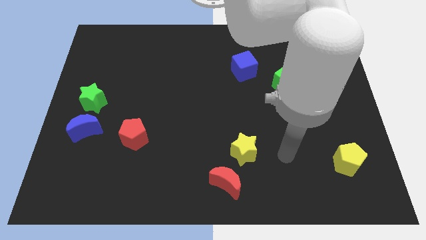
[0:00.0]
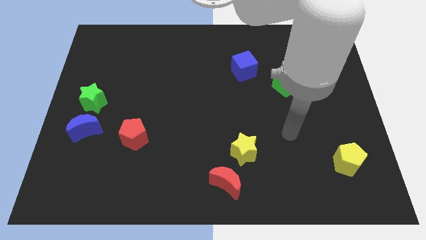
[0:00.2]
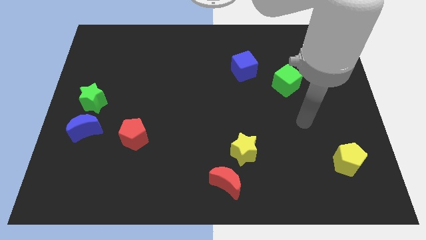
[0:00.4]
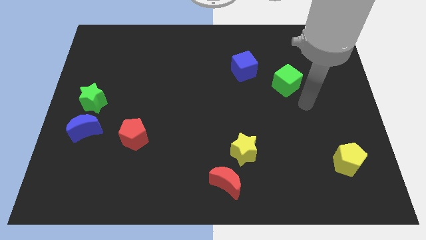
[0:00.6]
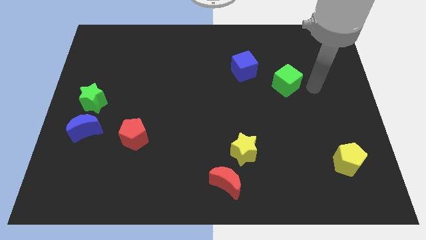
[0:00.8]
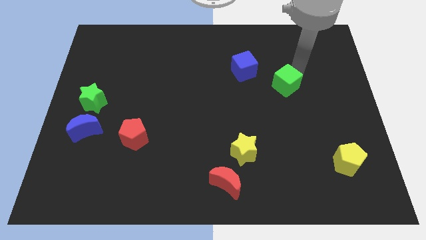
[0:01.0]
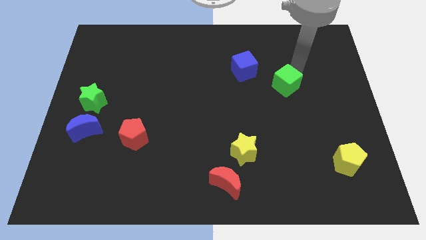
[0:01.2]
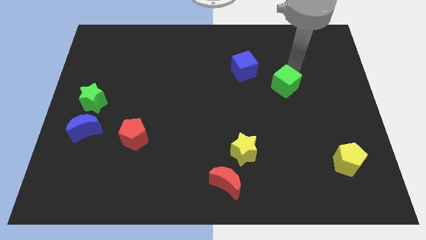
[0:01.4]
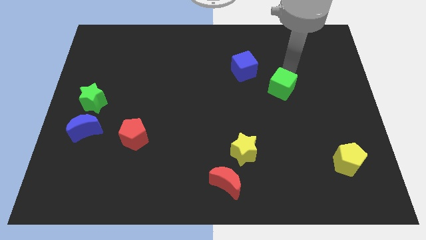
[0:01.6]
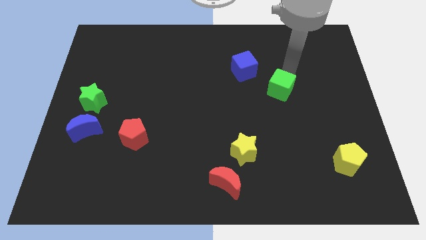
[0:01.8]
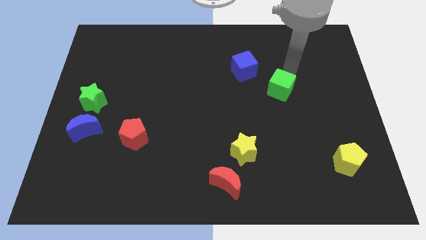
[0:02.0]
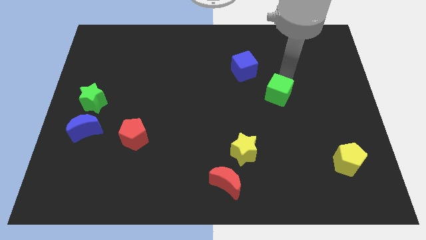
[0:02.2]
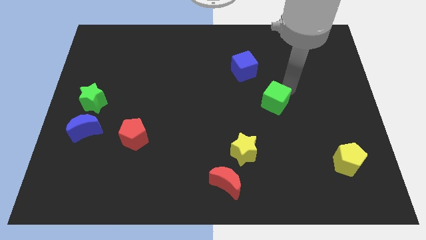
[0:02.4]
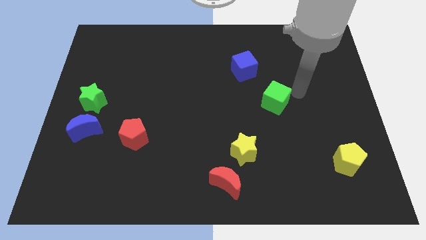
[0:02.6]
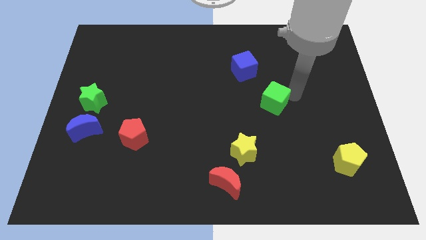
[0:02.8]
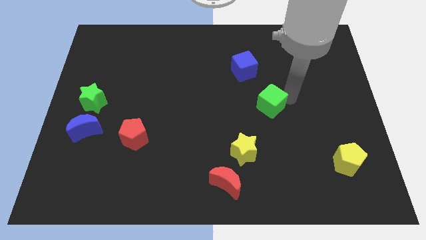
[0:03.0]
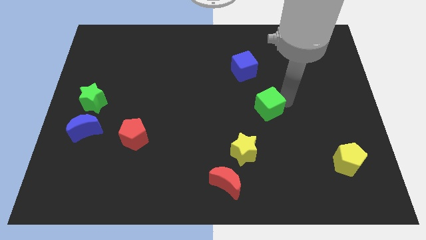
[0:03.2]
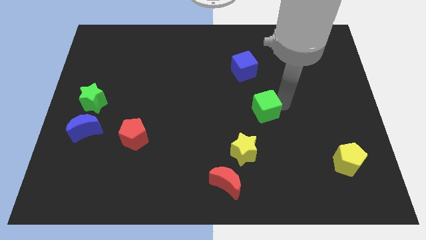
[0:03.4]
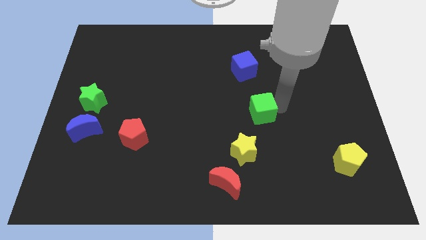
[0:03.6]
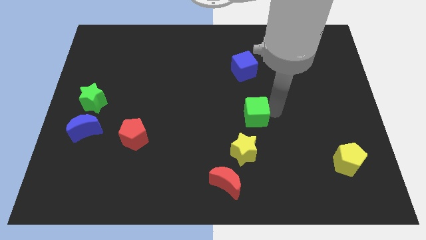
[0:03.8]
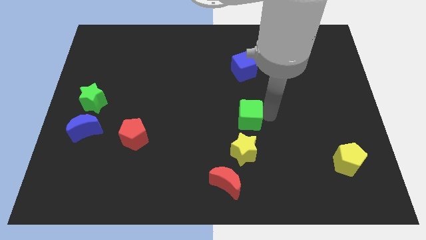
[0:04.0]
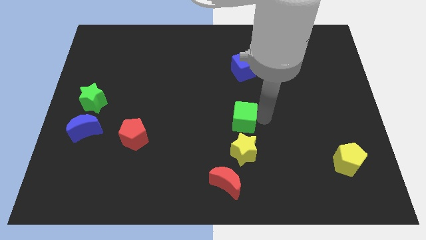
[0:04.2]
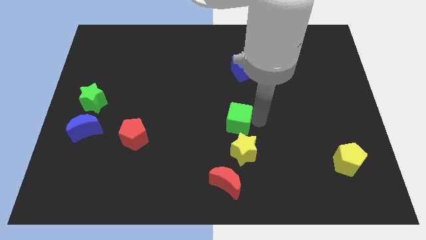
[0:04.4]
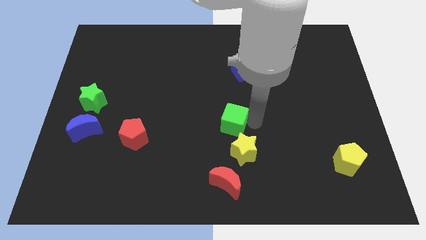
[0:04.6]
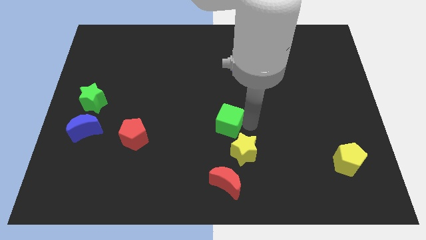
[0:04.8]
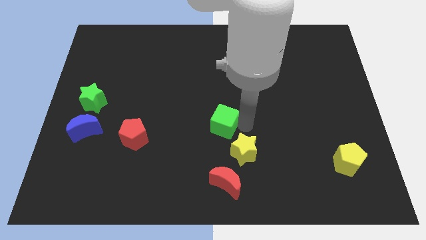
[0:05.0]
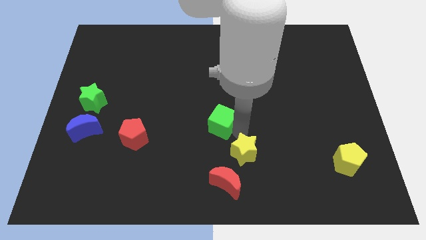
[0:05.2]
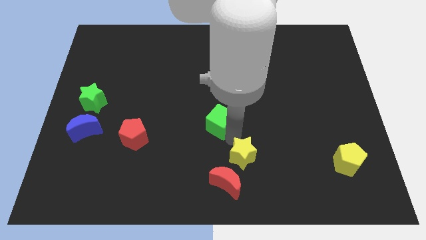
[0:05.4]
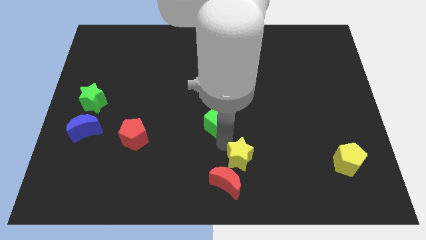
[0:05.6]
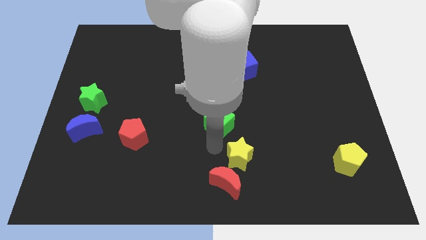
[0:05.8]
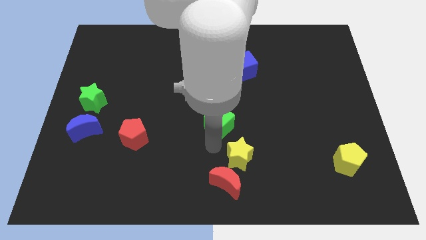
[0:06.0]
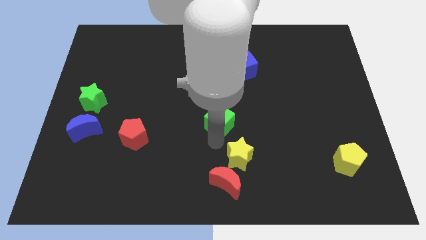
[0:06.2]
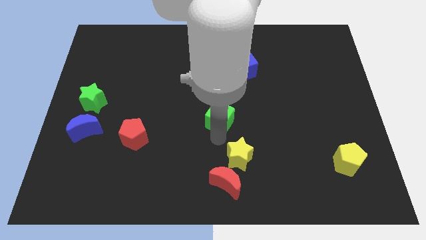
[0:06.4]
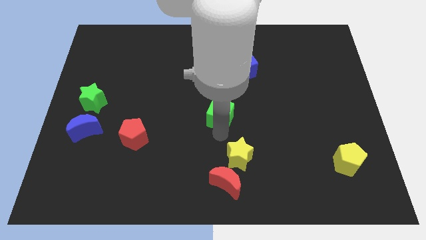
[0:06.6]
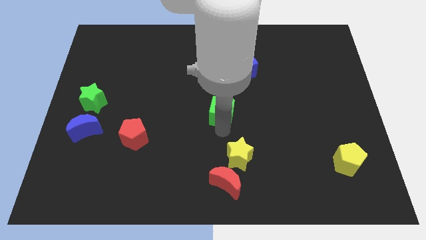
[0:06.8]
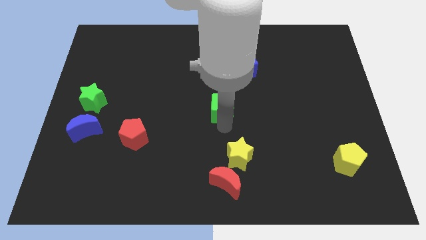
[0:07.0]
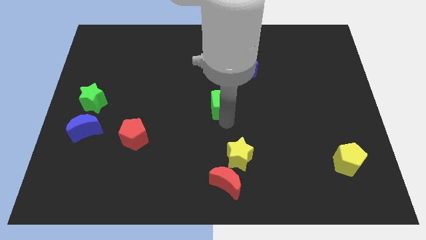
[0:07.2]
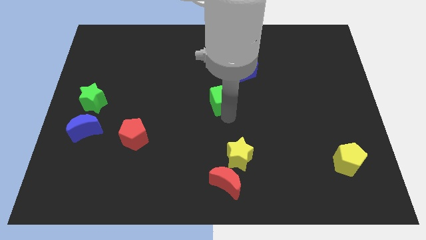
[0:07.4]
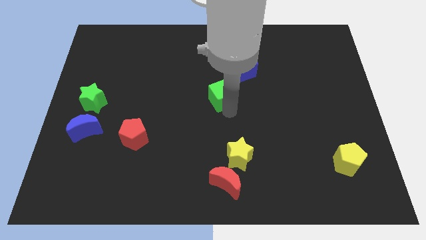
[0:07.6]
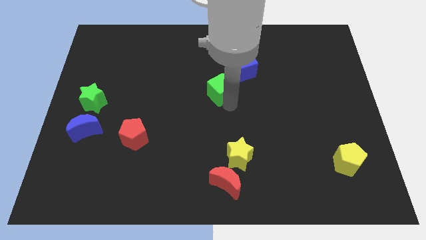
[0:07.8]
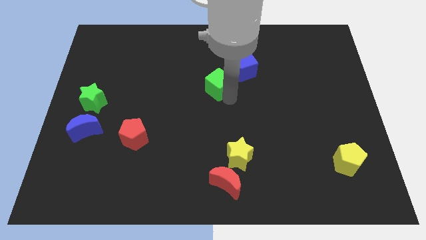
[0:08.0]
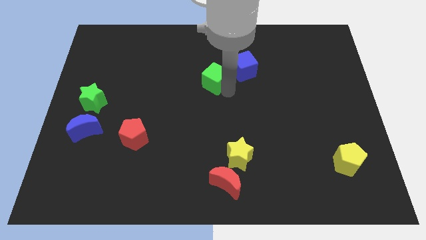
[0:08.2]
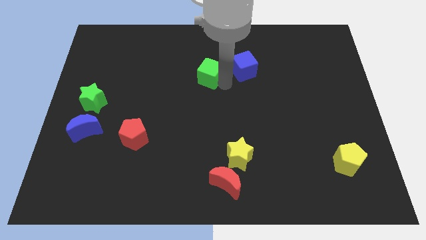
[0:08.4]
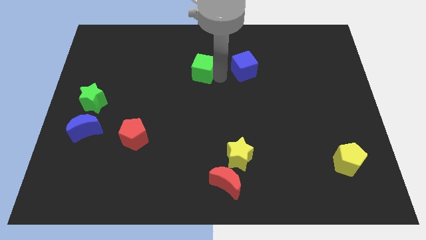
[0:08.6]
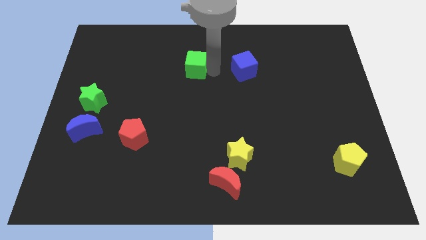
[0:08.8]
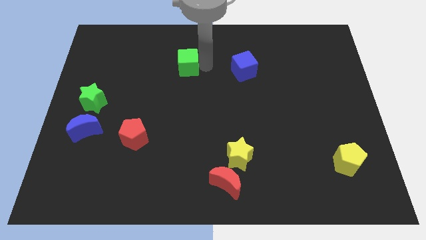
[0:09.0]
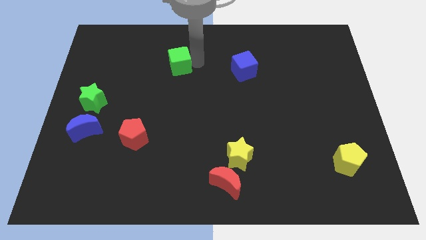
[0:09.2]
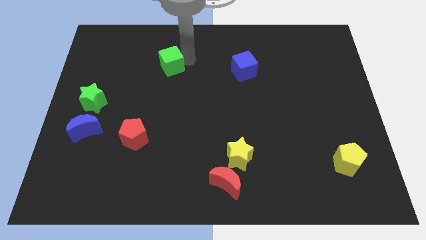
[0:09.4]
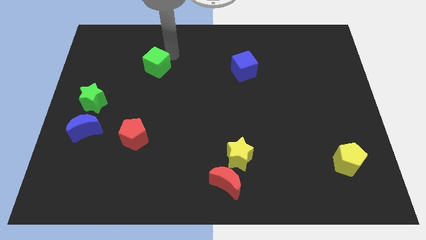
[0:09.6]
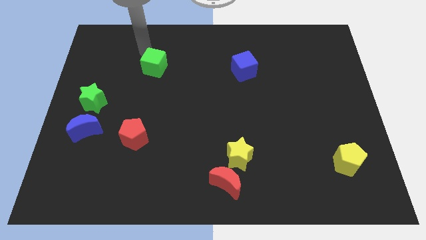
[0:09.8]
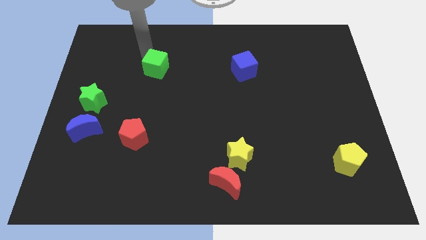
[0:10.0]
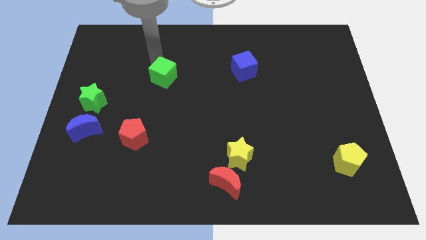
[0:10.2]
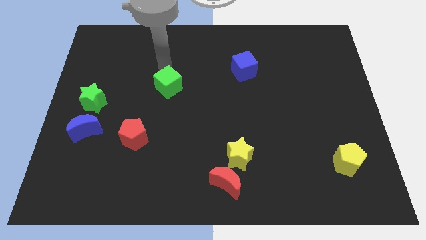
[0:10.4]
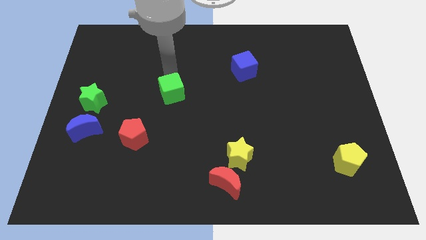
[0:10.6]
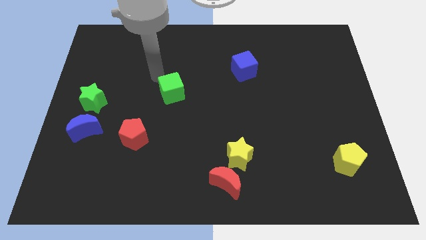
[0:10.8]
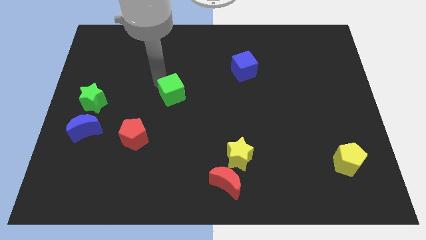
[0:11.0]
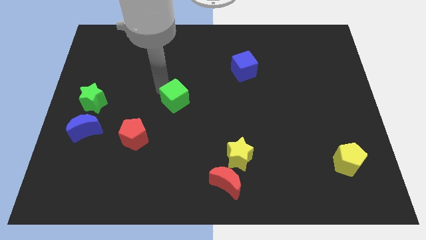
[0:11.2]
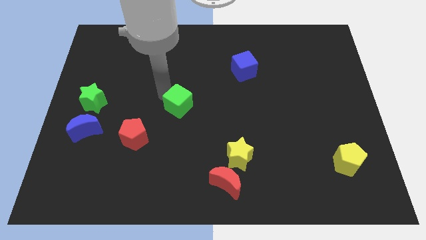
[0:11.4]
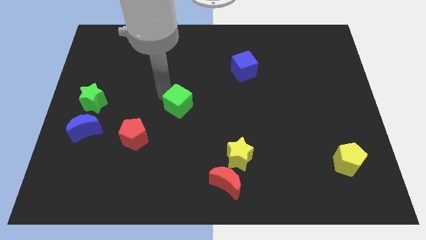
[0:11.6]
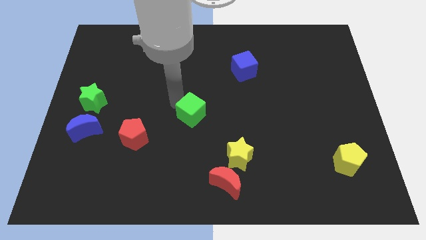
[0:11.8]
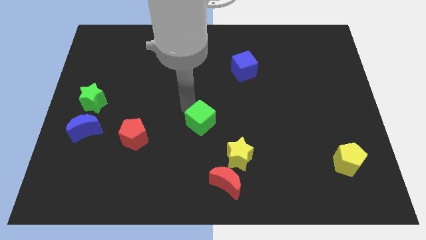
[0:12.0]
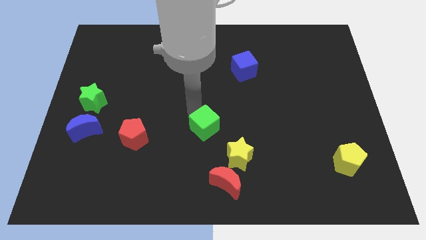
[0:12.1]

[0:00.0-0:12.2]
put the green cube right of the red pentagon

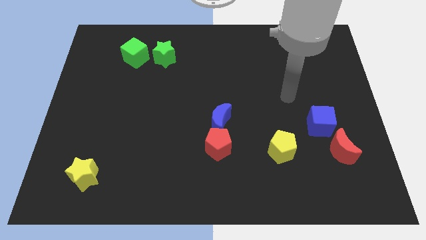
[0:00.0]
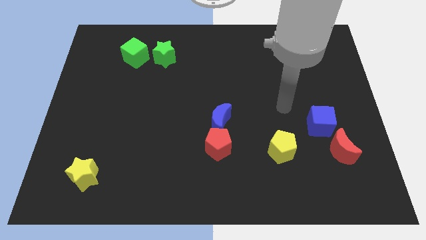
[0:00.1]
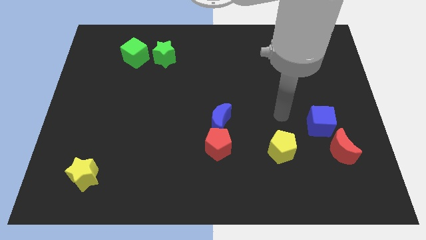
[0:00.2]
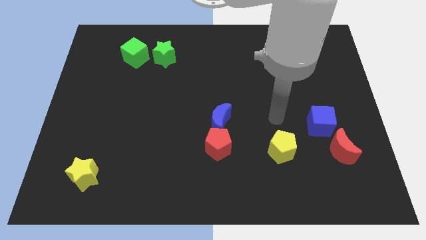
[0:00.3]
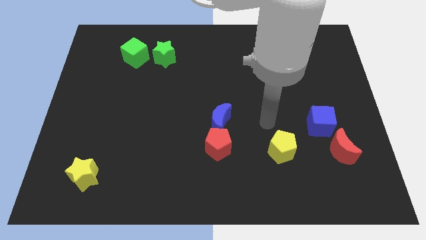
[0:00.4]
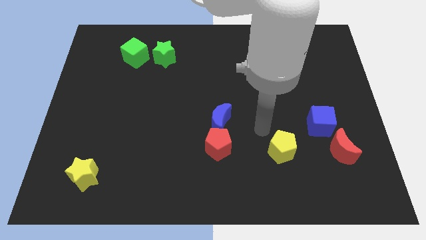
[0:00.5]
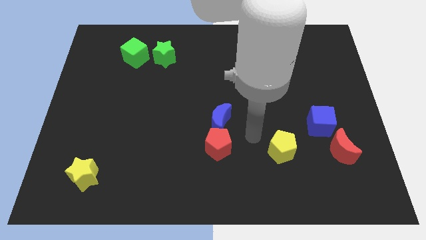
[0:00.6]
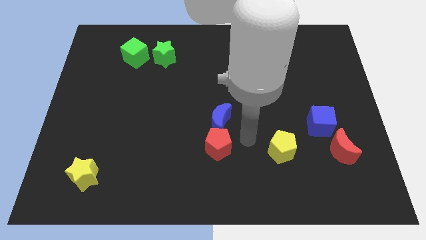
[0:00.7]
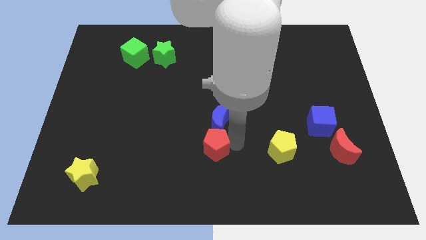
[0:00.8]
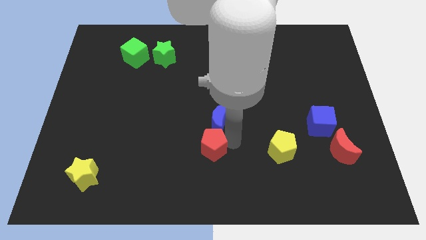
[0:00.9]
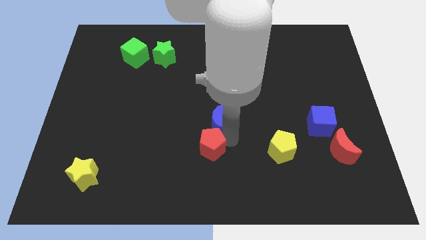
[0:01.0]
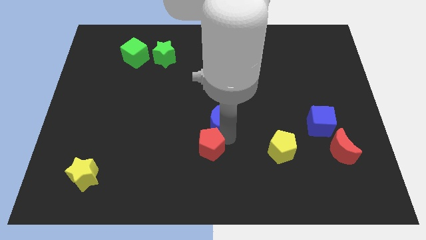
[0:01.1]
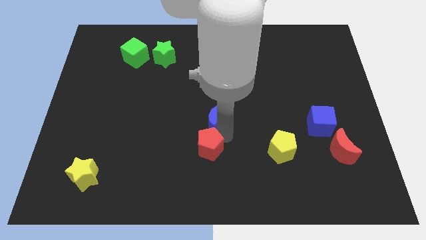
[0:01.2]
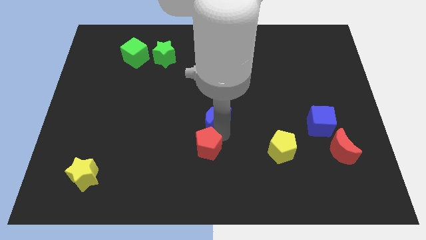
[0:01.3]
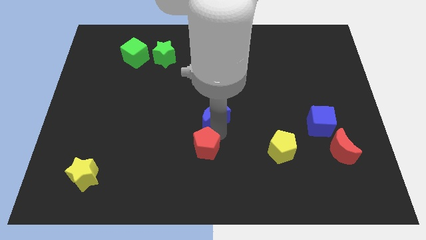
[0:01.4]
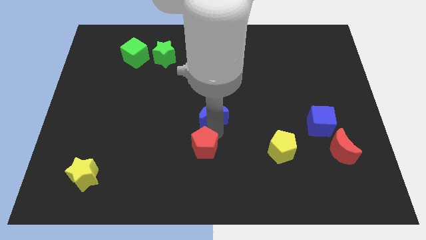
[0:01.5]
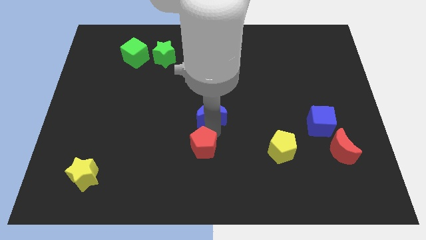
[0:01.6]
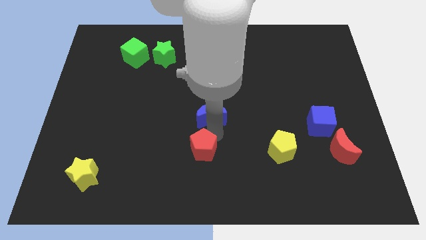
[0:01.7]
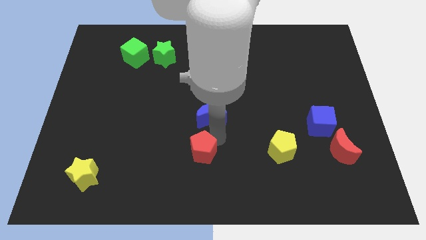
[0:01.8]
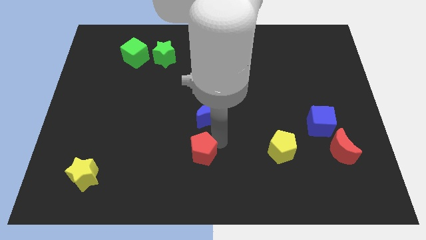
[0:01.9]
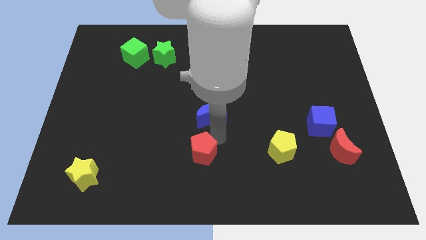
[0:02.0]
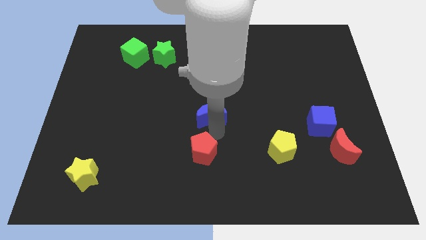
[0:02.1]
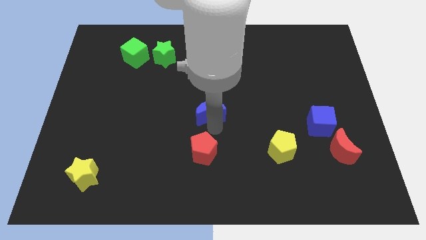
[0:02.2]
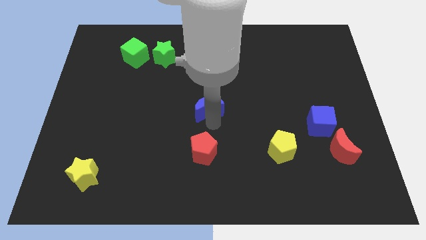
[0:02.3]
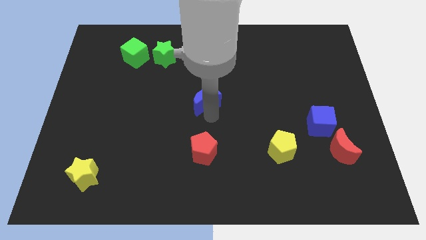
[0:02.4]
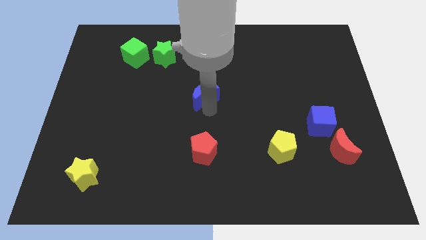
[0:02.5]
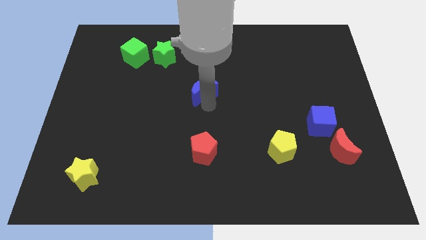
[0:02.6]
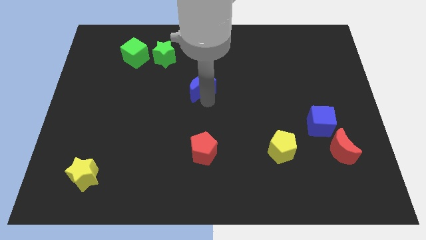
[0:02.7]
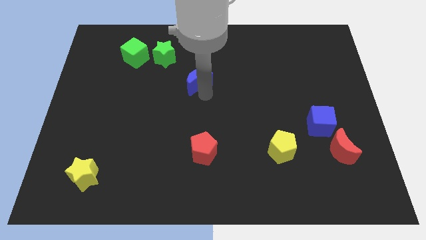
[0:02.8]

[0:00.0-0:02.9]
move the blue moon diagonally down and to the right of the green star
